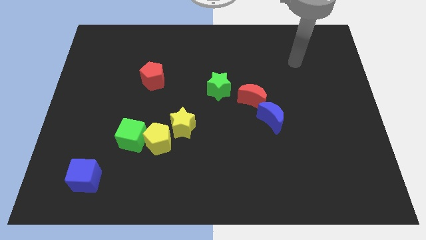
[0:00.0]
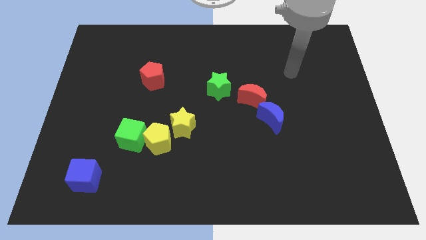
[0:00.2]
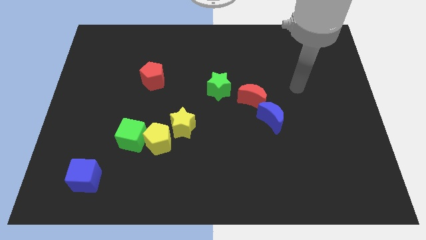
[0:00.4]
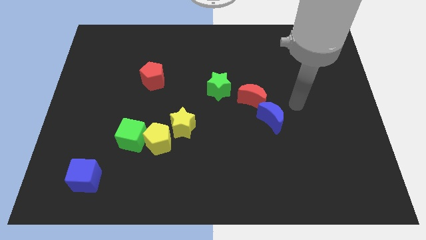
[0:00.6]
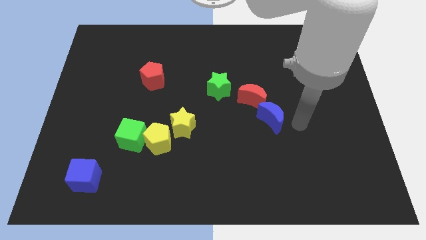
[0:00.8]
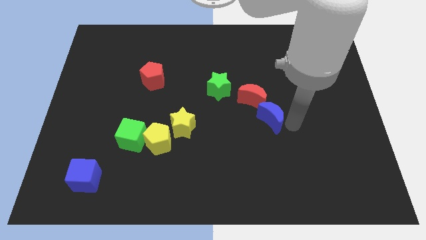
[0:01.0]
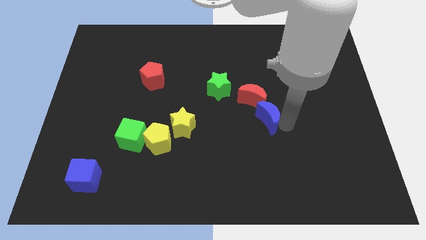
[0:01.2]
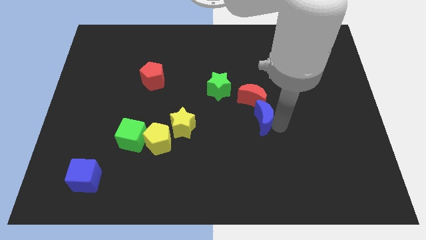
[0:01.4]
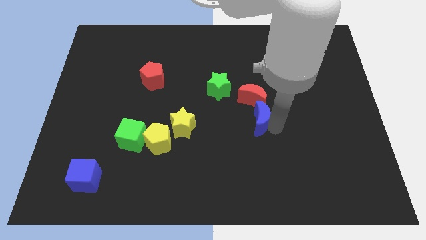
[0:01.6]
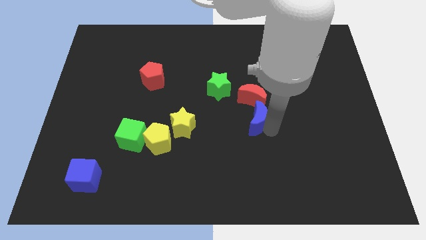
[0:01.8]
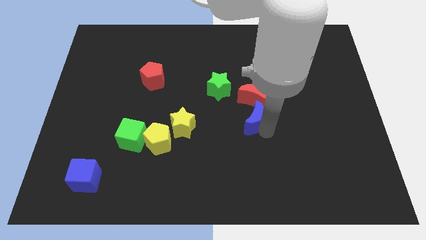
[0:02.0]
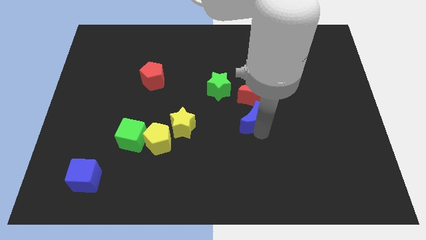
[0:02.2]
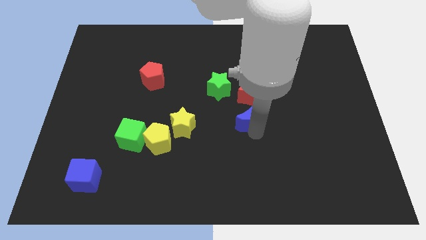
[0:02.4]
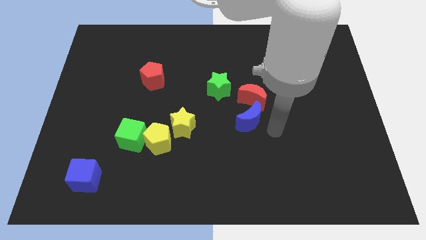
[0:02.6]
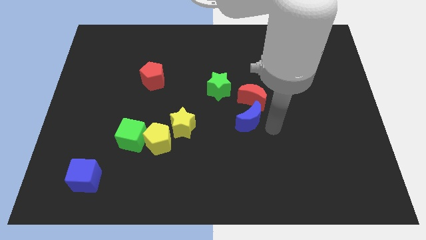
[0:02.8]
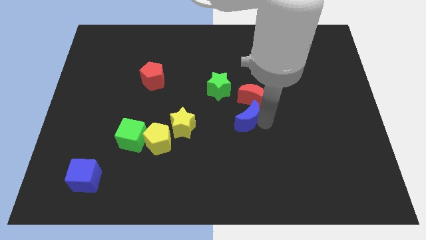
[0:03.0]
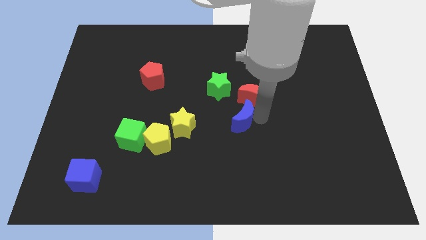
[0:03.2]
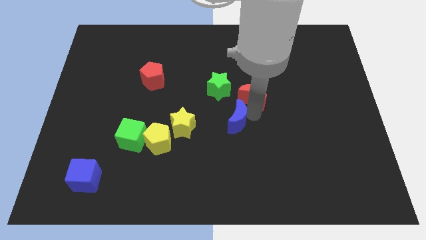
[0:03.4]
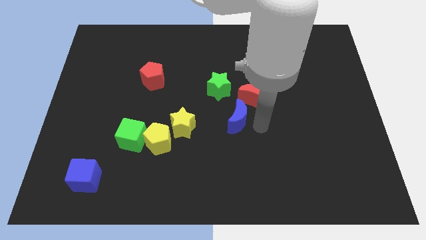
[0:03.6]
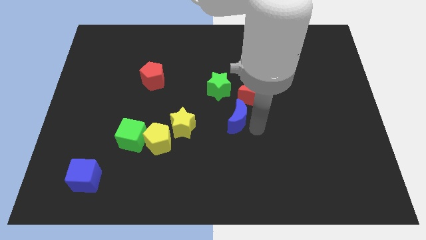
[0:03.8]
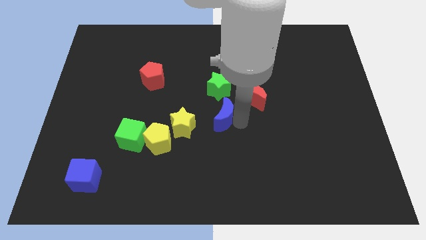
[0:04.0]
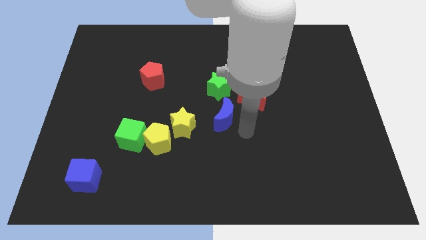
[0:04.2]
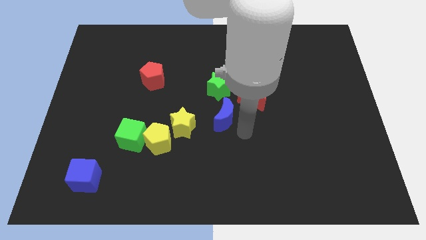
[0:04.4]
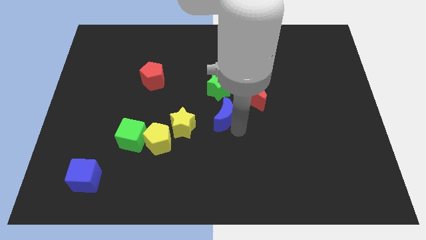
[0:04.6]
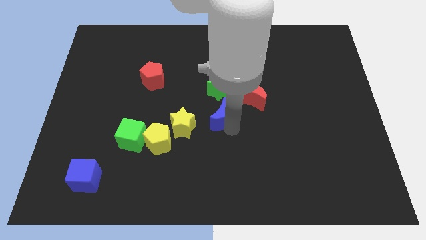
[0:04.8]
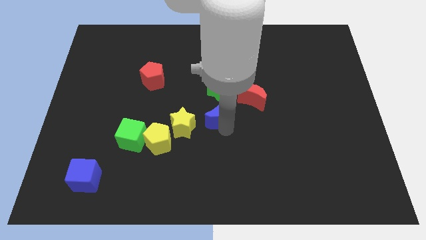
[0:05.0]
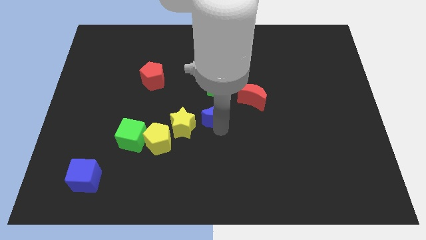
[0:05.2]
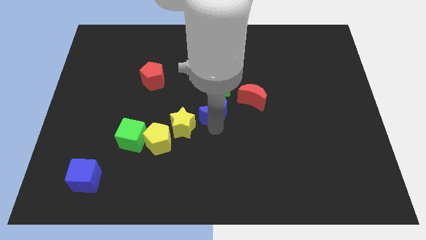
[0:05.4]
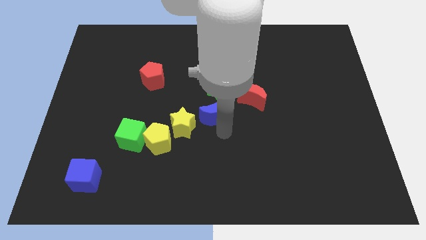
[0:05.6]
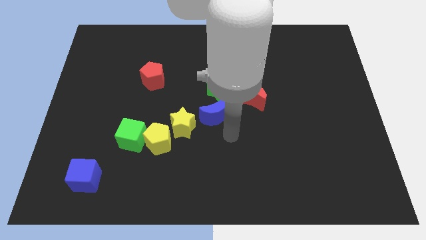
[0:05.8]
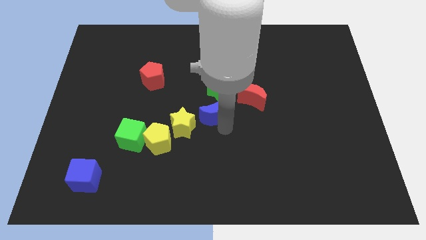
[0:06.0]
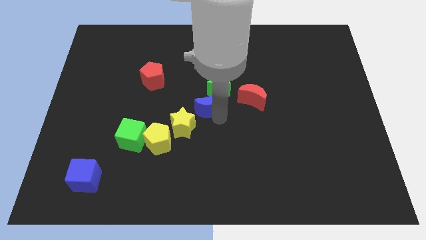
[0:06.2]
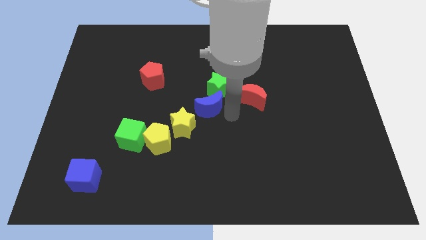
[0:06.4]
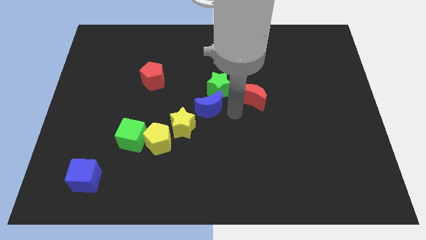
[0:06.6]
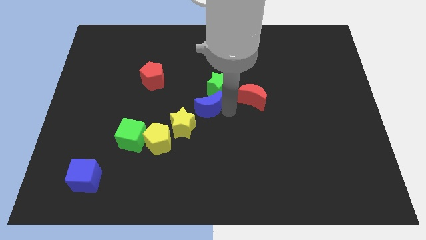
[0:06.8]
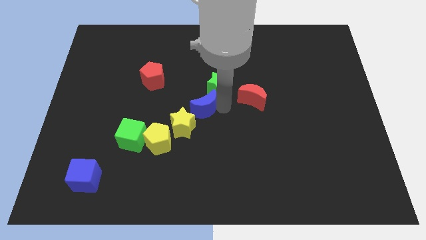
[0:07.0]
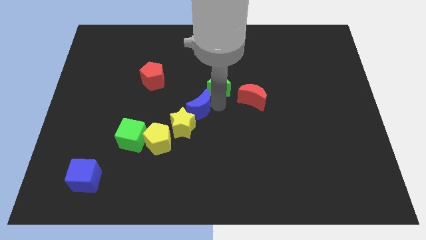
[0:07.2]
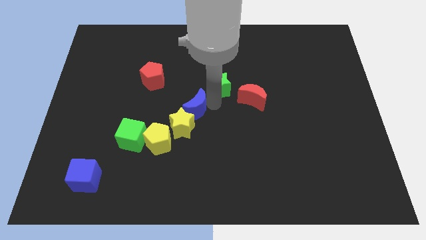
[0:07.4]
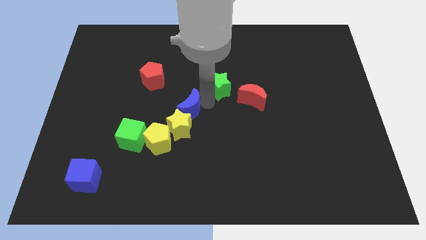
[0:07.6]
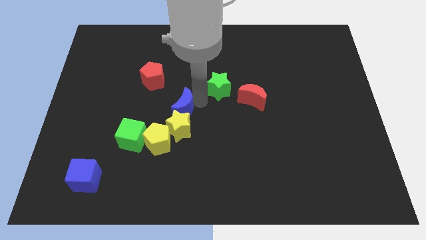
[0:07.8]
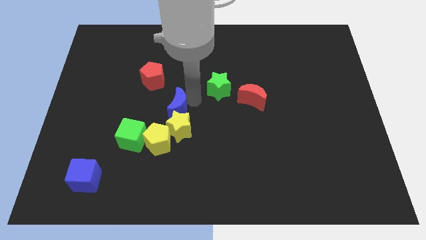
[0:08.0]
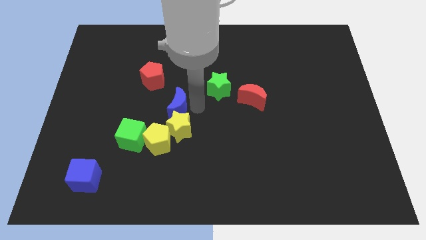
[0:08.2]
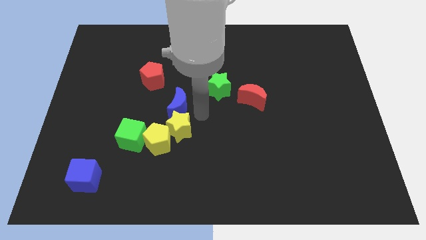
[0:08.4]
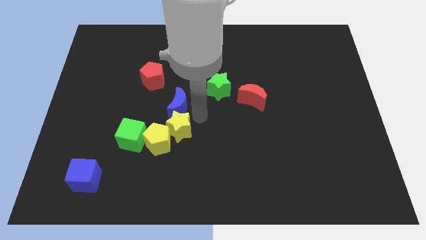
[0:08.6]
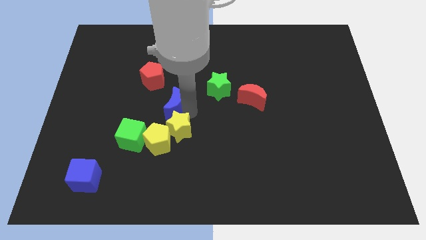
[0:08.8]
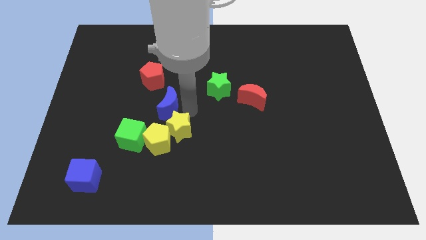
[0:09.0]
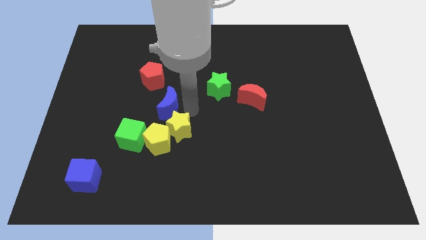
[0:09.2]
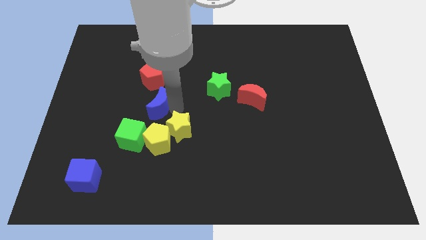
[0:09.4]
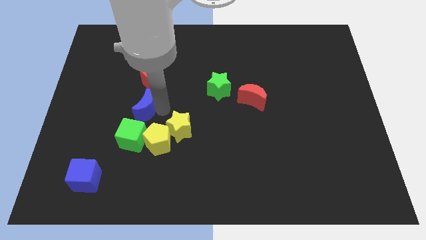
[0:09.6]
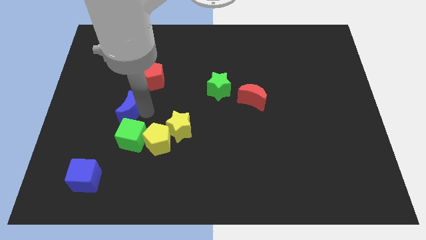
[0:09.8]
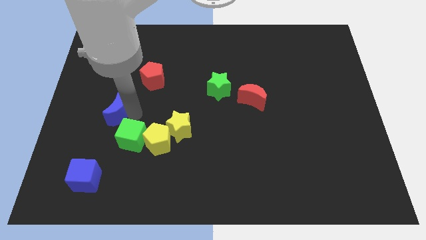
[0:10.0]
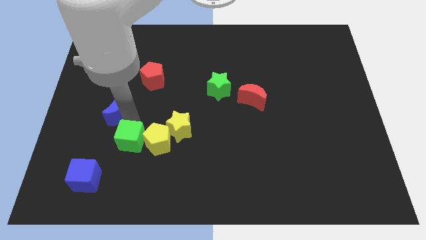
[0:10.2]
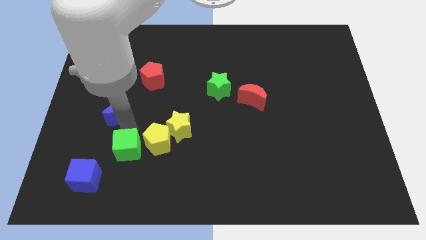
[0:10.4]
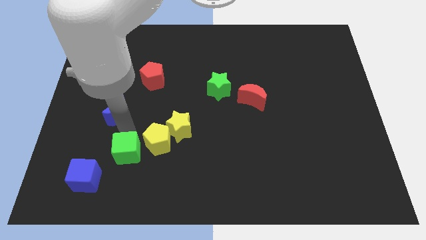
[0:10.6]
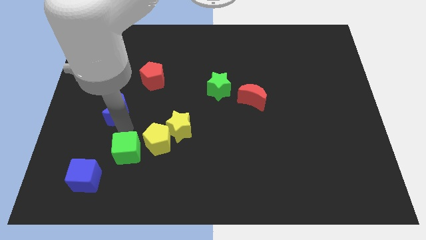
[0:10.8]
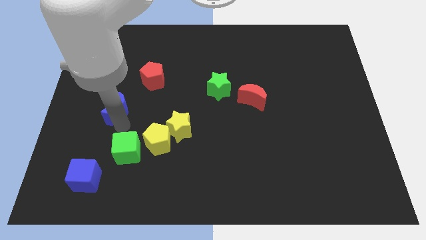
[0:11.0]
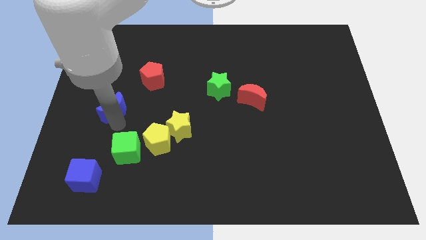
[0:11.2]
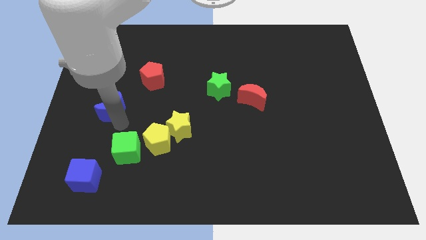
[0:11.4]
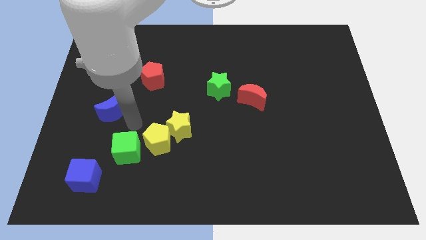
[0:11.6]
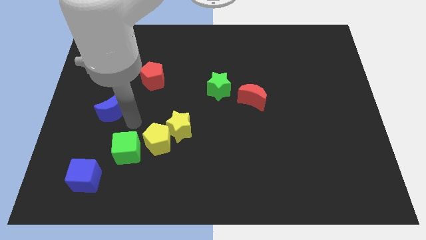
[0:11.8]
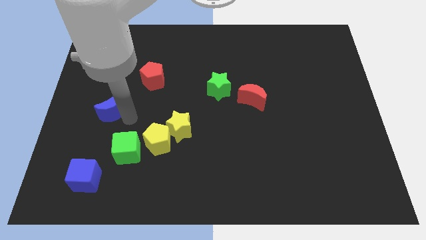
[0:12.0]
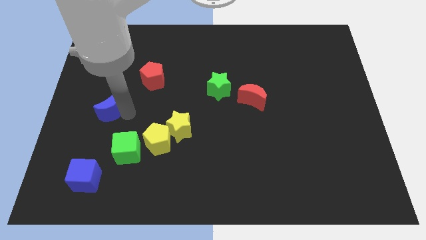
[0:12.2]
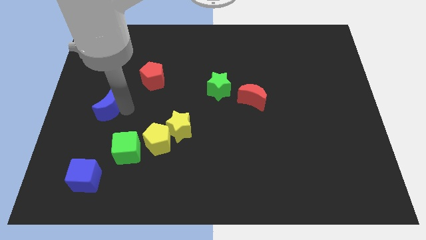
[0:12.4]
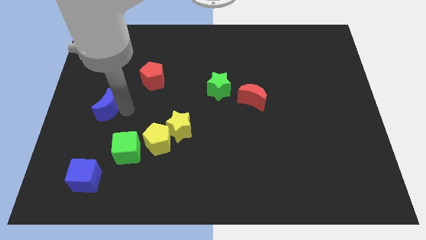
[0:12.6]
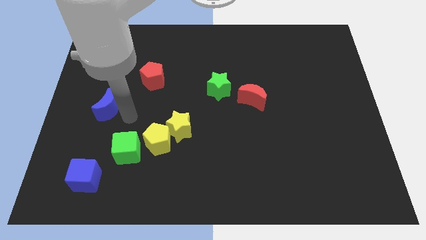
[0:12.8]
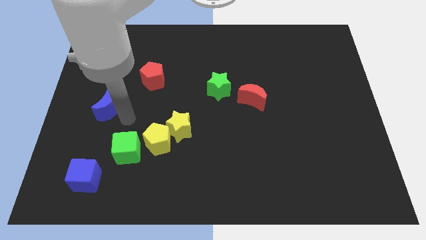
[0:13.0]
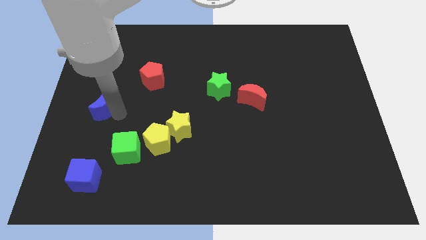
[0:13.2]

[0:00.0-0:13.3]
slide the blue moon to the center left

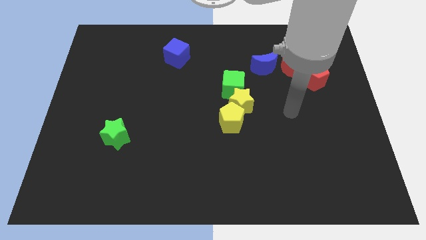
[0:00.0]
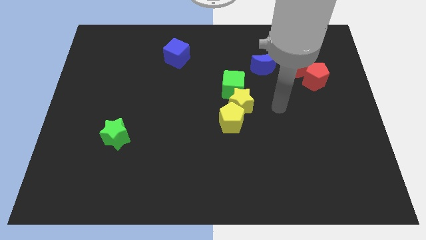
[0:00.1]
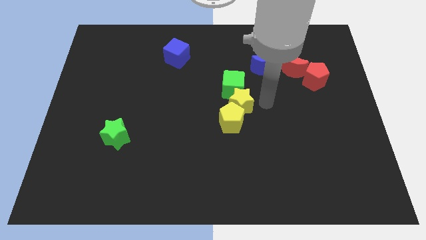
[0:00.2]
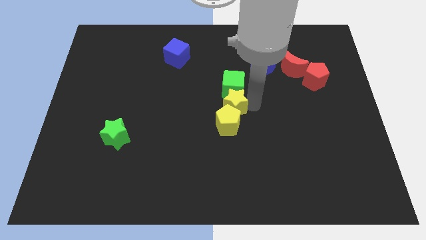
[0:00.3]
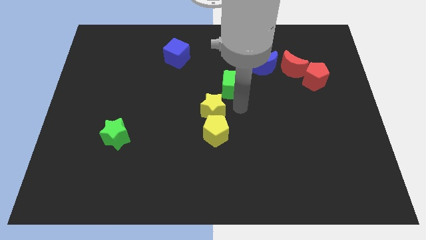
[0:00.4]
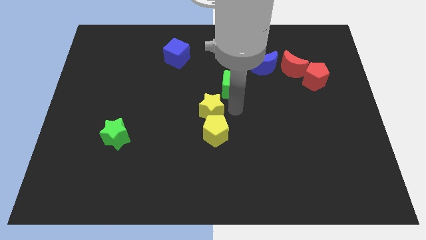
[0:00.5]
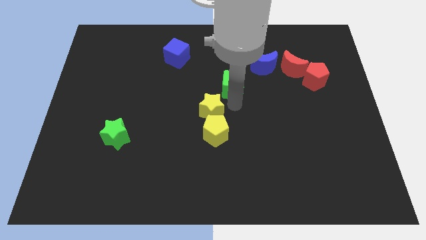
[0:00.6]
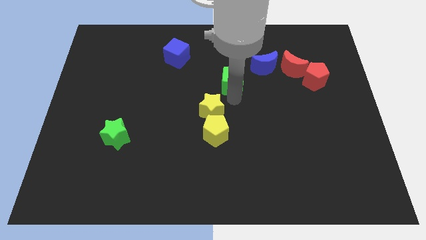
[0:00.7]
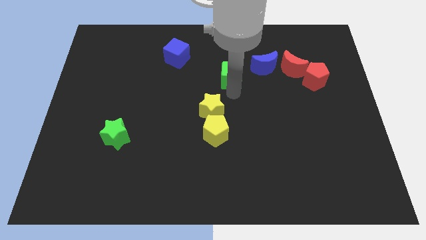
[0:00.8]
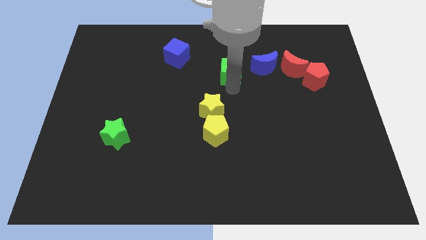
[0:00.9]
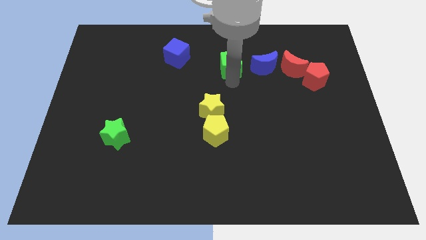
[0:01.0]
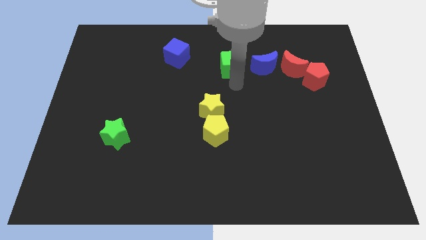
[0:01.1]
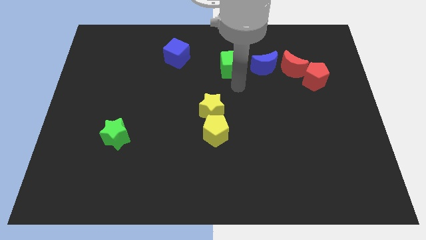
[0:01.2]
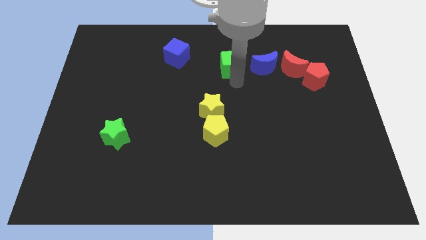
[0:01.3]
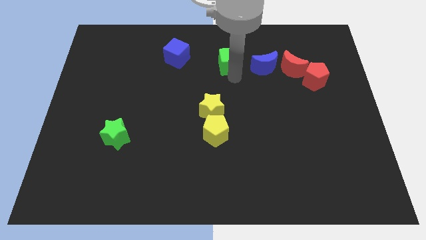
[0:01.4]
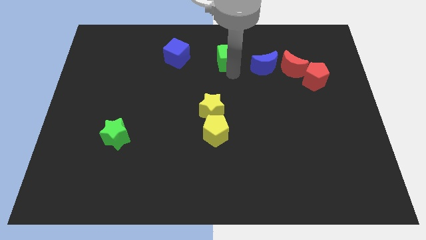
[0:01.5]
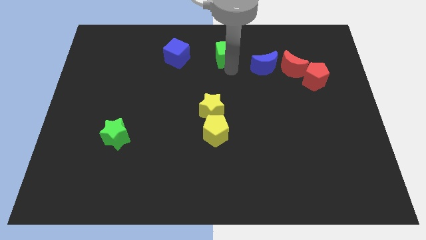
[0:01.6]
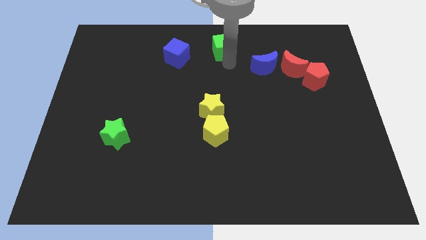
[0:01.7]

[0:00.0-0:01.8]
slide the green cube to the towards your base
